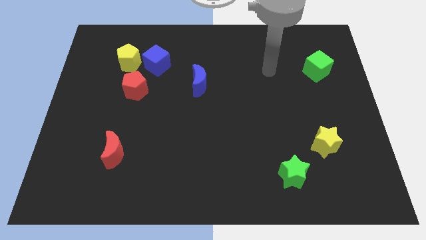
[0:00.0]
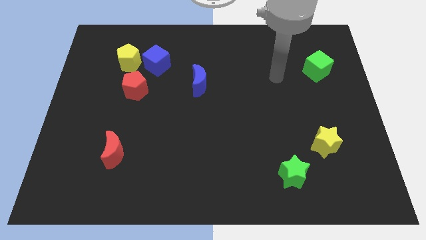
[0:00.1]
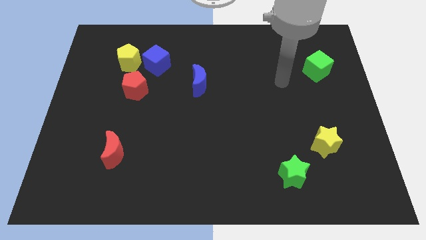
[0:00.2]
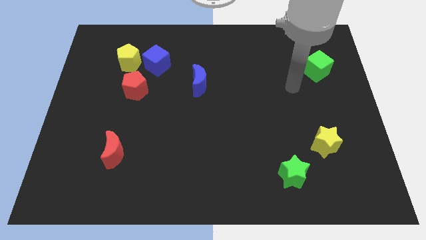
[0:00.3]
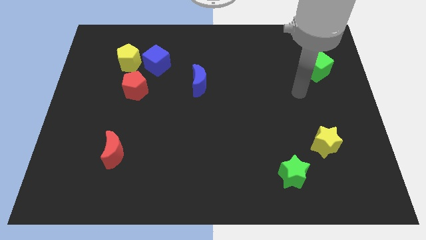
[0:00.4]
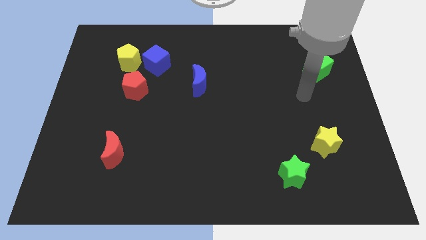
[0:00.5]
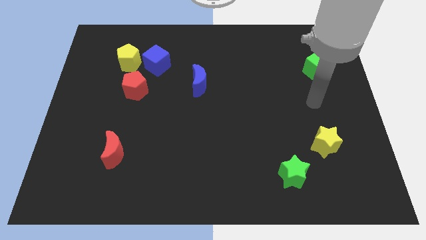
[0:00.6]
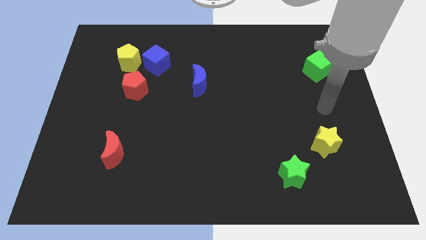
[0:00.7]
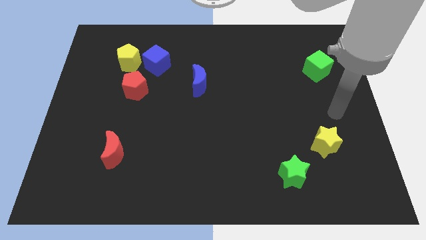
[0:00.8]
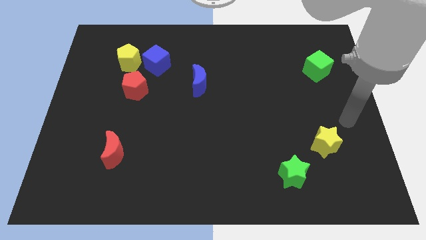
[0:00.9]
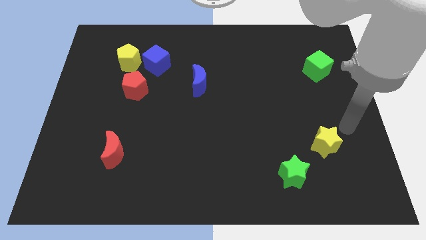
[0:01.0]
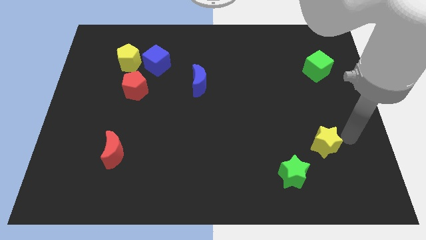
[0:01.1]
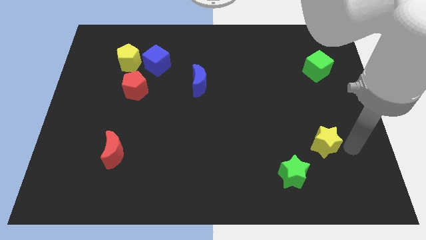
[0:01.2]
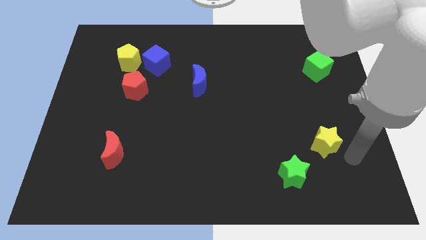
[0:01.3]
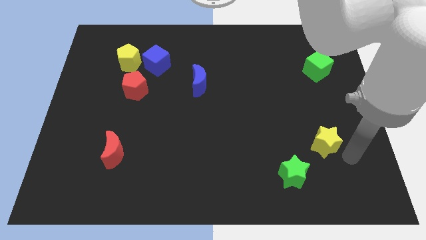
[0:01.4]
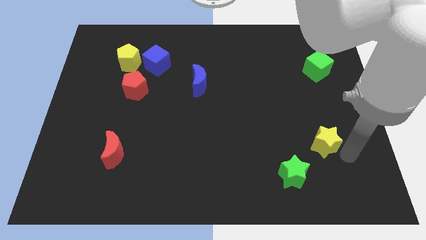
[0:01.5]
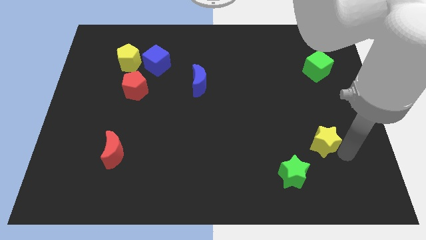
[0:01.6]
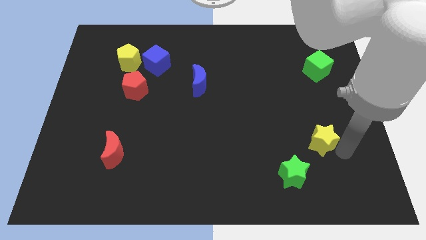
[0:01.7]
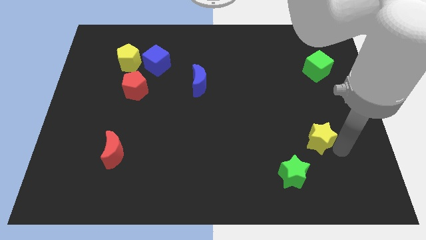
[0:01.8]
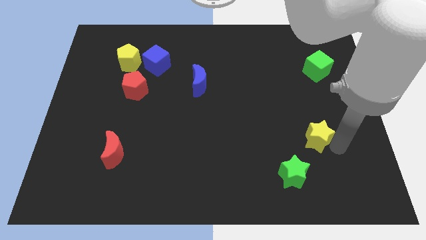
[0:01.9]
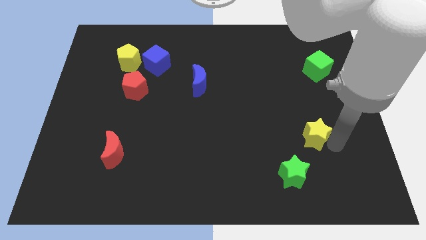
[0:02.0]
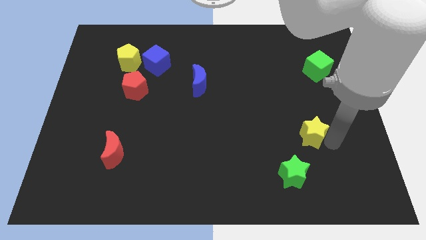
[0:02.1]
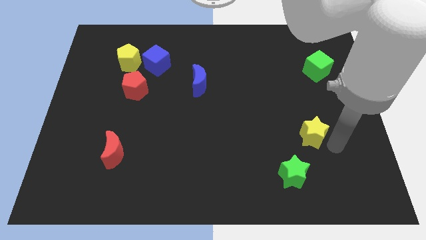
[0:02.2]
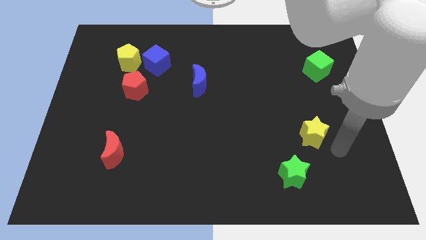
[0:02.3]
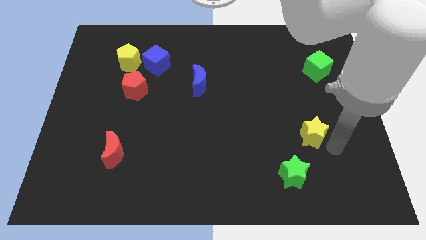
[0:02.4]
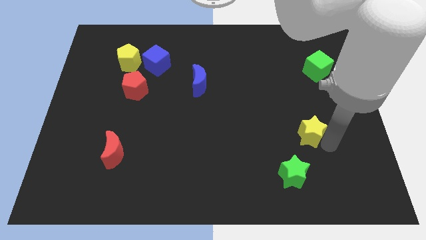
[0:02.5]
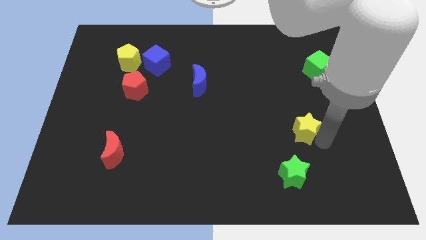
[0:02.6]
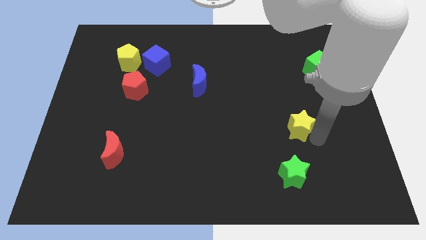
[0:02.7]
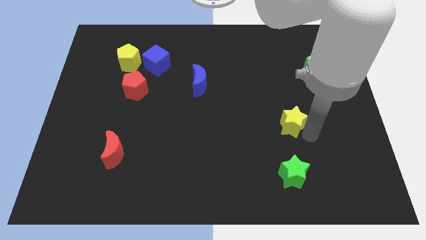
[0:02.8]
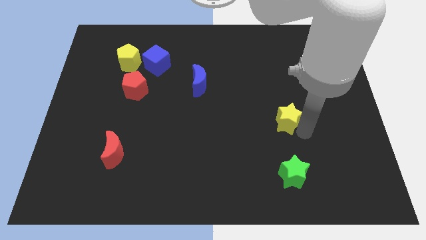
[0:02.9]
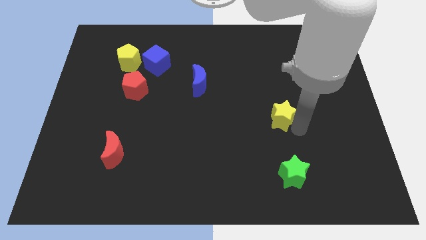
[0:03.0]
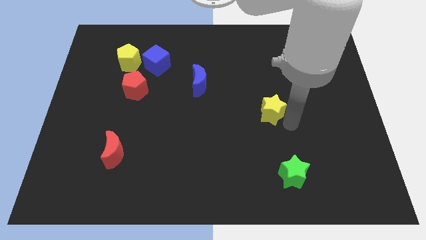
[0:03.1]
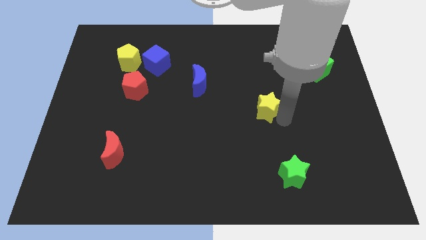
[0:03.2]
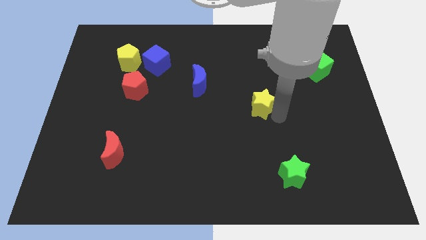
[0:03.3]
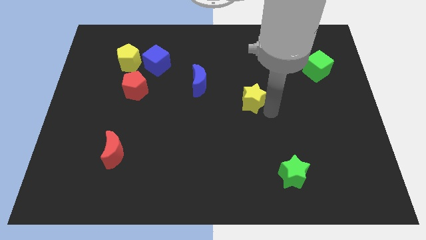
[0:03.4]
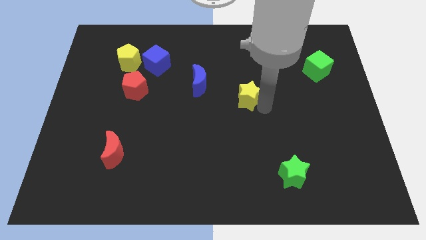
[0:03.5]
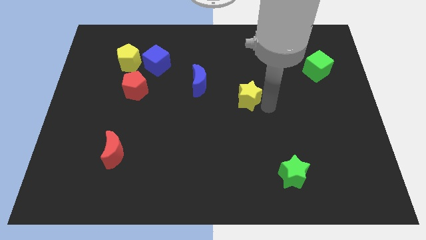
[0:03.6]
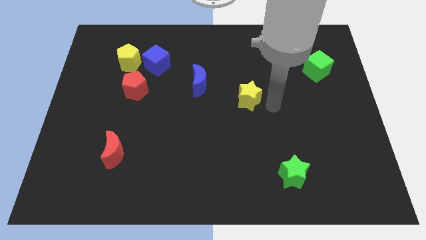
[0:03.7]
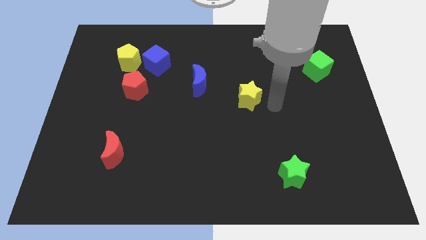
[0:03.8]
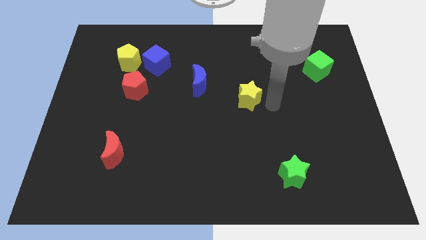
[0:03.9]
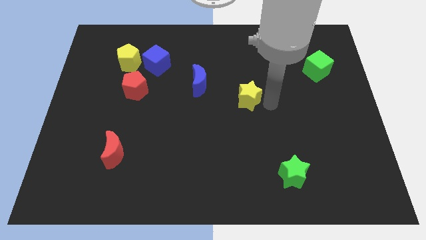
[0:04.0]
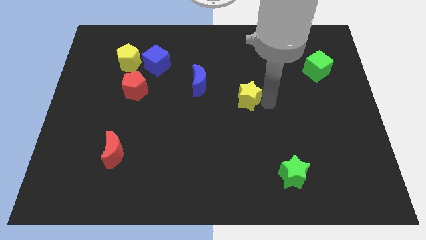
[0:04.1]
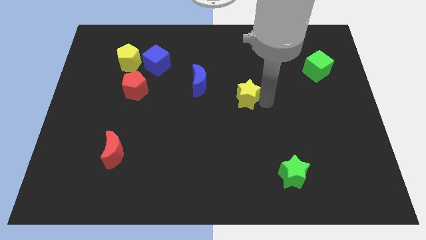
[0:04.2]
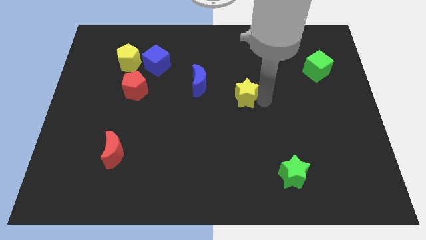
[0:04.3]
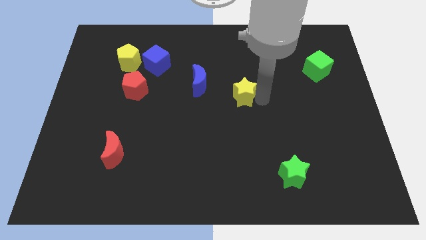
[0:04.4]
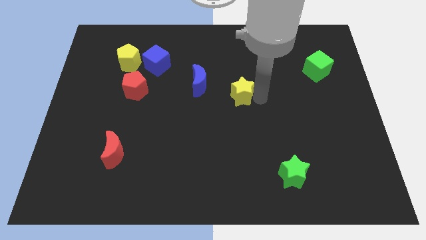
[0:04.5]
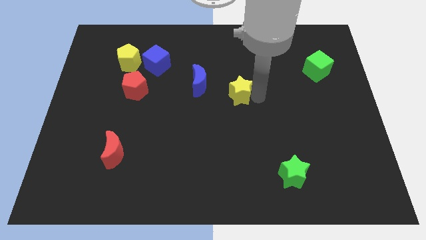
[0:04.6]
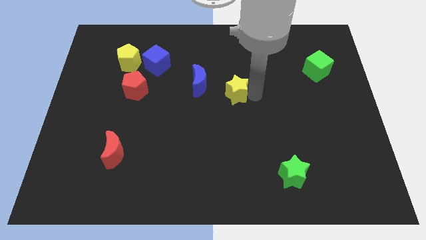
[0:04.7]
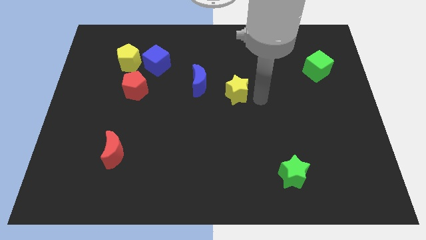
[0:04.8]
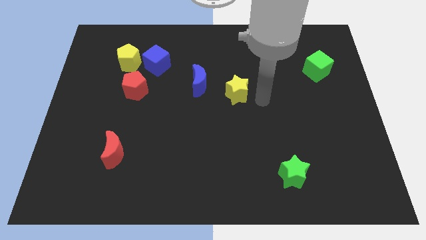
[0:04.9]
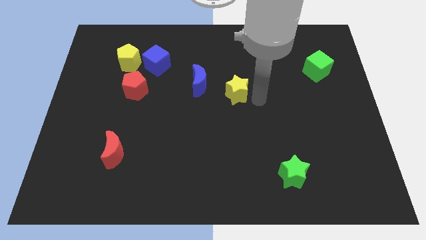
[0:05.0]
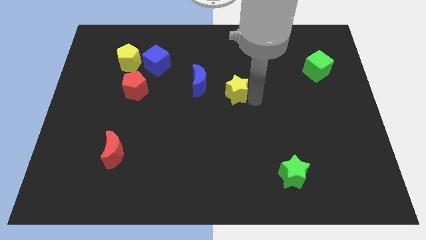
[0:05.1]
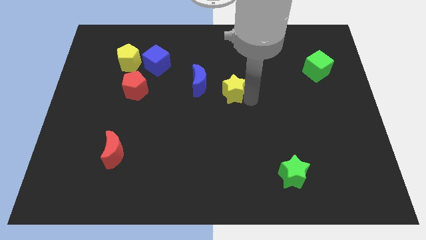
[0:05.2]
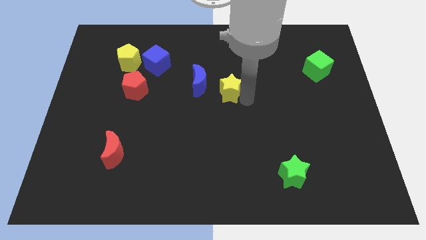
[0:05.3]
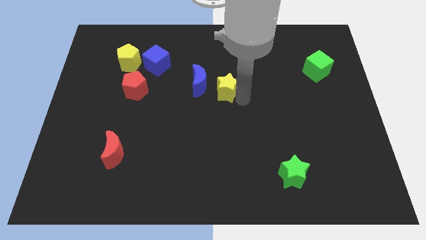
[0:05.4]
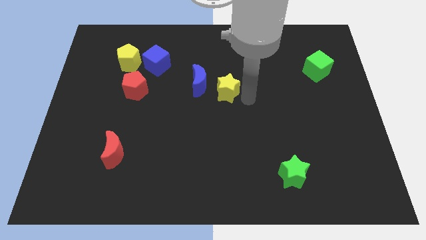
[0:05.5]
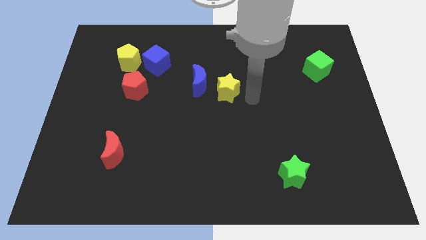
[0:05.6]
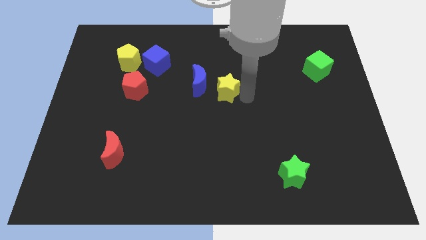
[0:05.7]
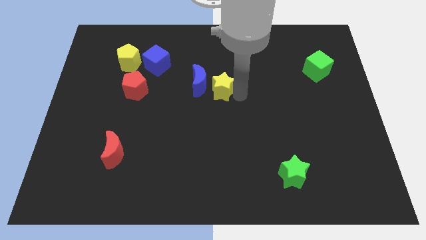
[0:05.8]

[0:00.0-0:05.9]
slide the yellow star close to the blue moon
